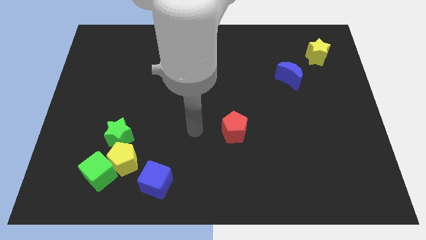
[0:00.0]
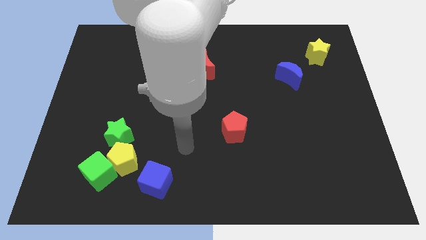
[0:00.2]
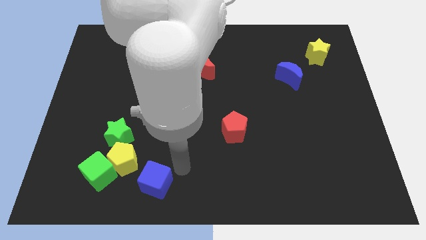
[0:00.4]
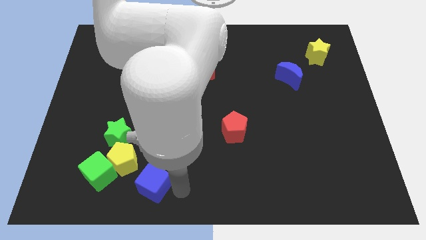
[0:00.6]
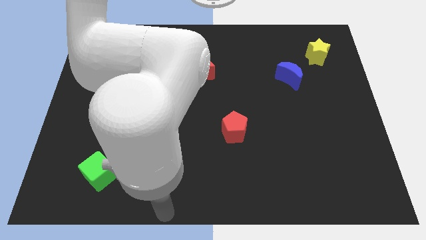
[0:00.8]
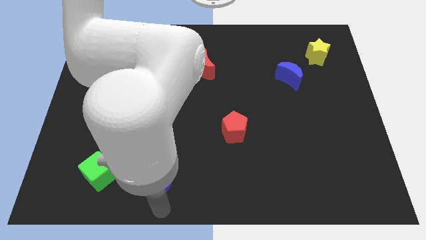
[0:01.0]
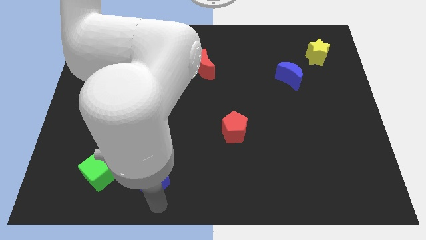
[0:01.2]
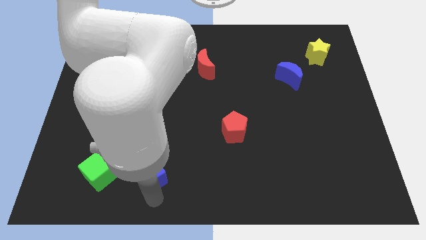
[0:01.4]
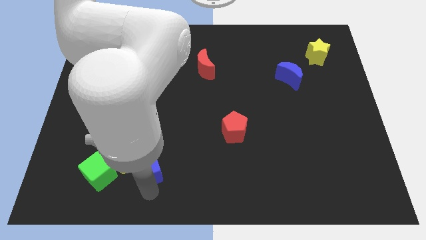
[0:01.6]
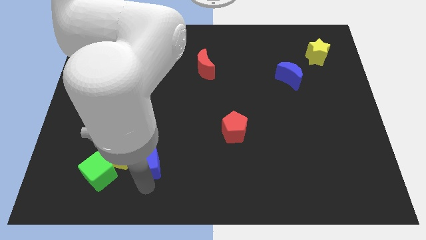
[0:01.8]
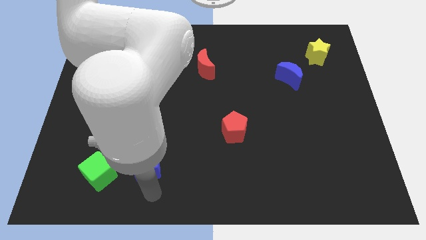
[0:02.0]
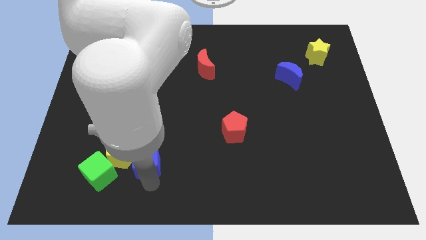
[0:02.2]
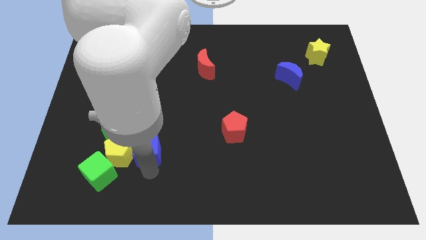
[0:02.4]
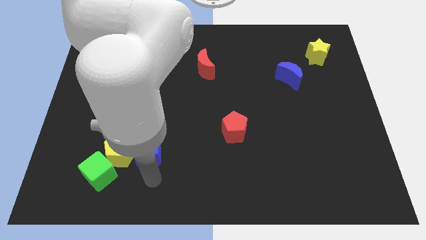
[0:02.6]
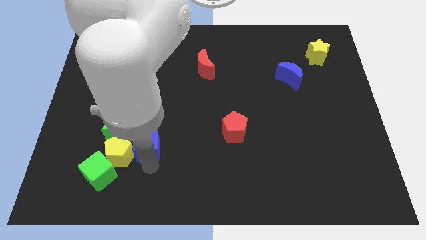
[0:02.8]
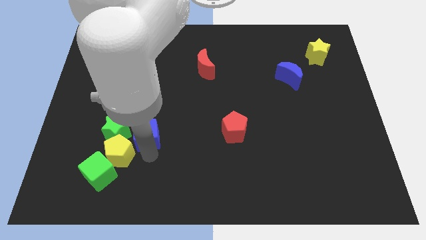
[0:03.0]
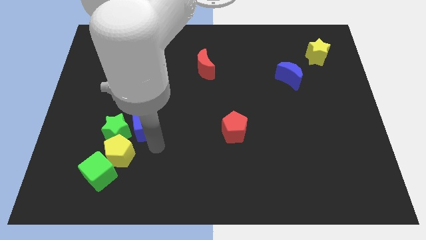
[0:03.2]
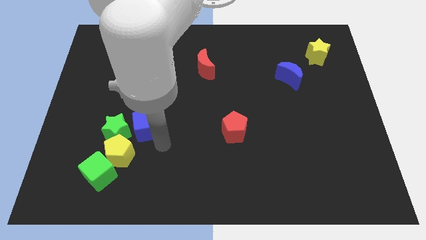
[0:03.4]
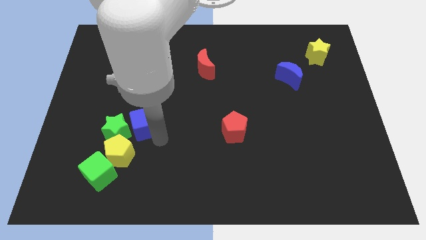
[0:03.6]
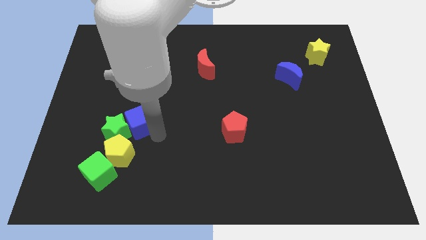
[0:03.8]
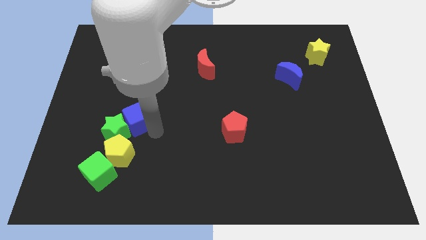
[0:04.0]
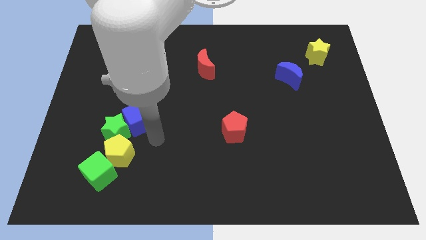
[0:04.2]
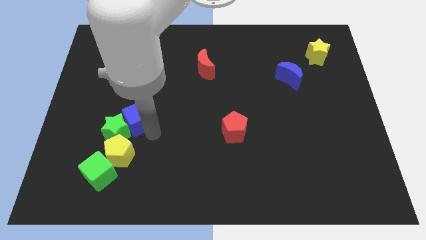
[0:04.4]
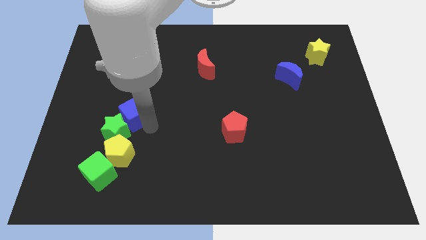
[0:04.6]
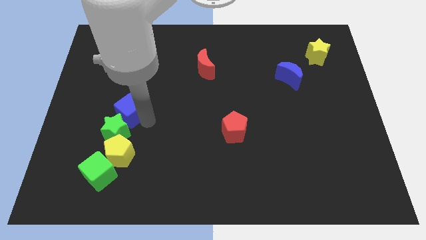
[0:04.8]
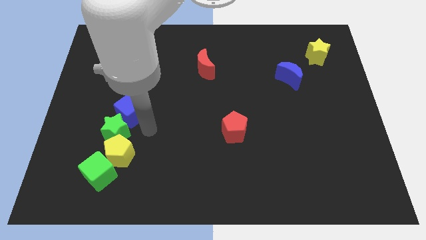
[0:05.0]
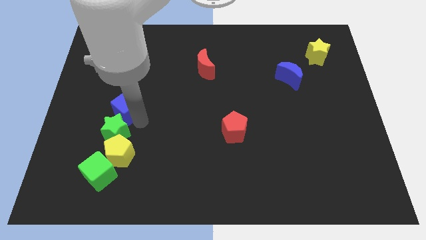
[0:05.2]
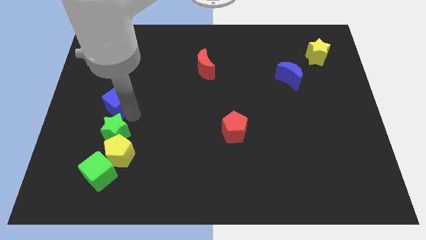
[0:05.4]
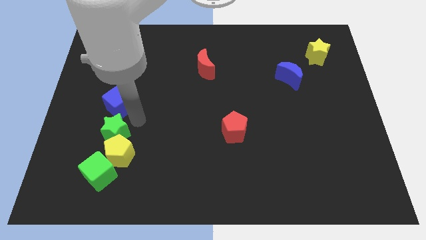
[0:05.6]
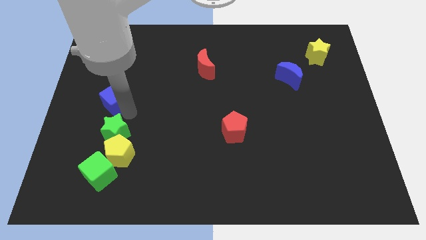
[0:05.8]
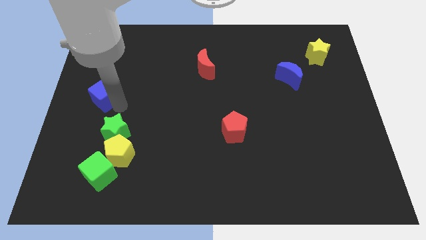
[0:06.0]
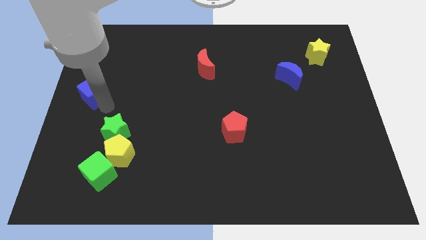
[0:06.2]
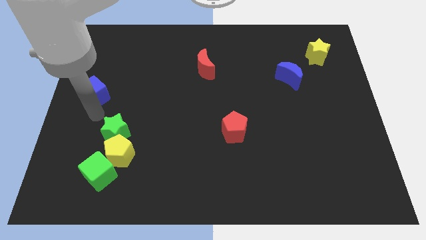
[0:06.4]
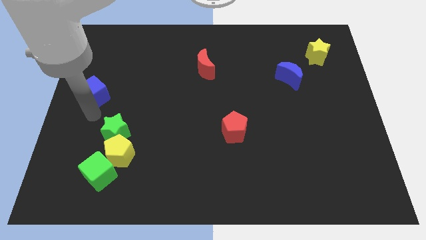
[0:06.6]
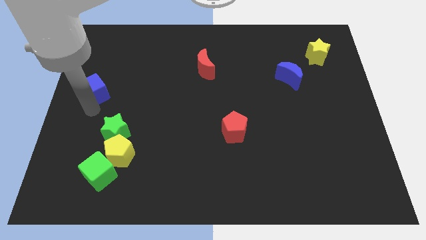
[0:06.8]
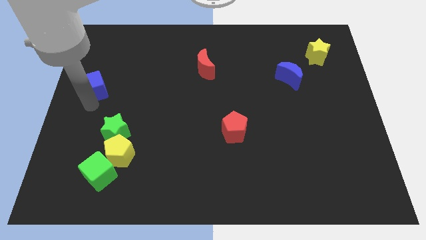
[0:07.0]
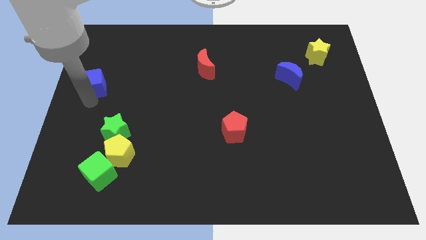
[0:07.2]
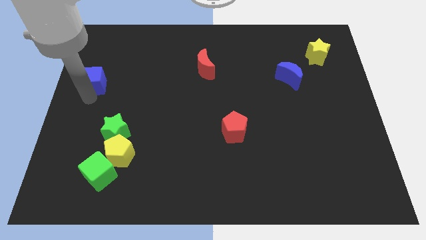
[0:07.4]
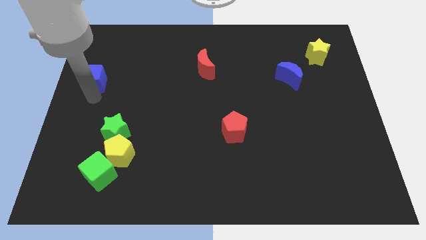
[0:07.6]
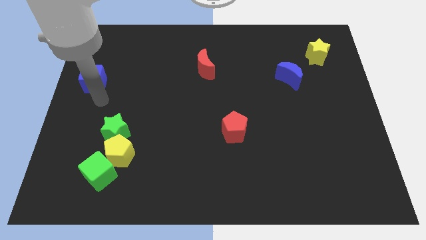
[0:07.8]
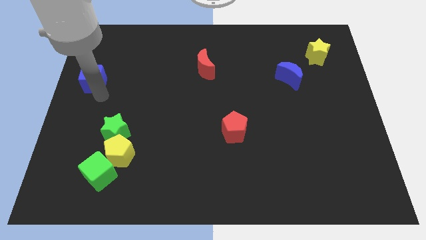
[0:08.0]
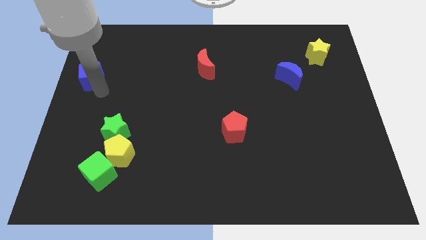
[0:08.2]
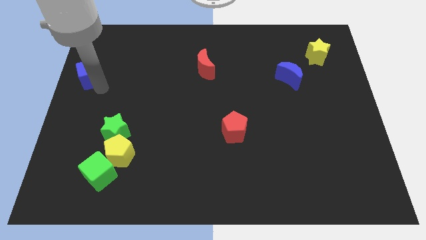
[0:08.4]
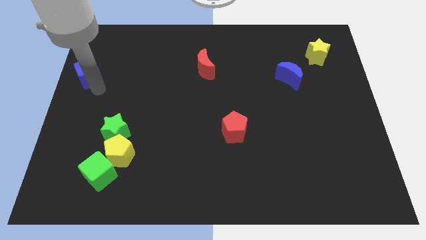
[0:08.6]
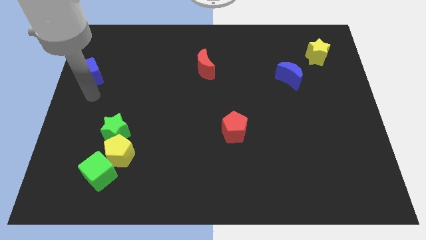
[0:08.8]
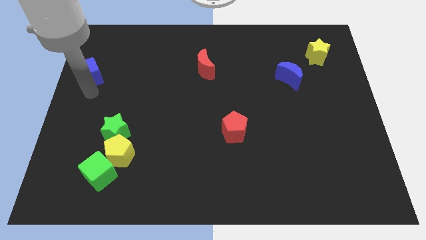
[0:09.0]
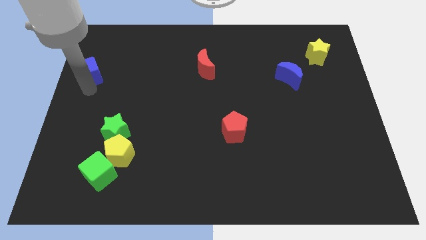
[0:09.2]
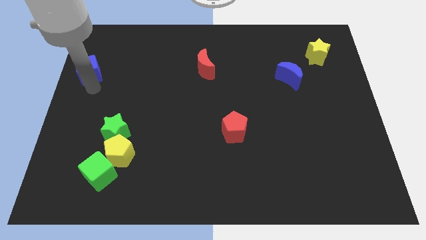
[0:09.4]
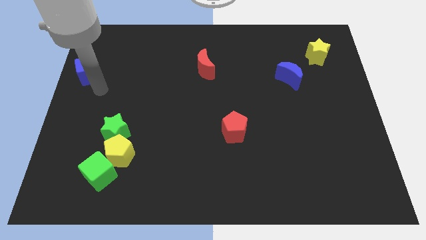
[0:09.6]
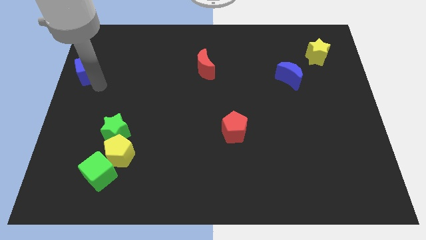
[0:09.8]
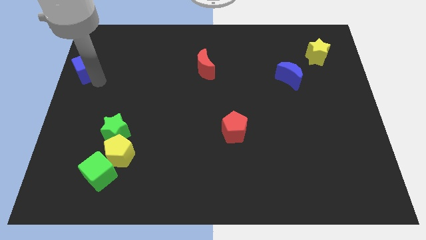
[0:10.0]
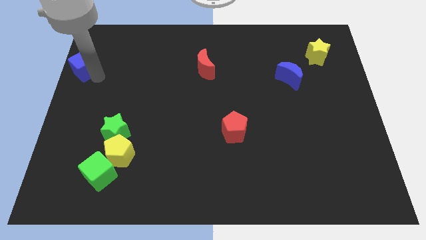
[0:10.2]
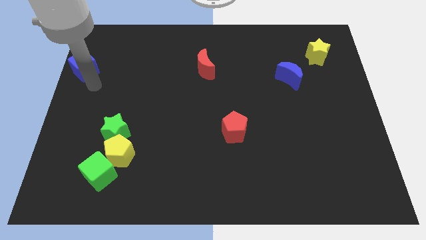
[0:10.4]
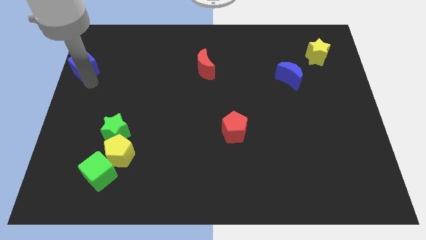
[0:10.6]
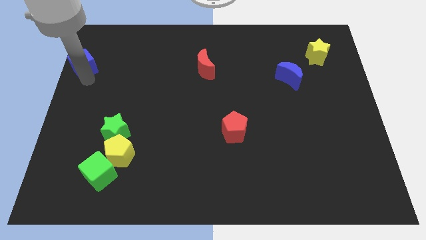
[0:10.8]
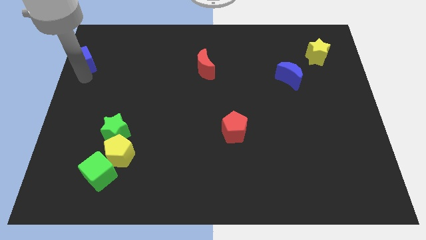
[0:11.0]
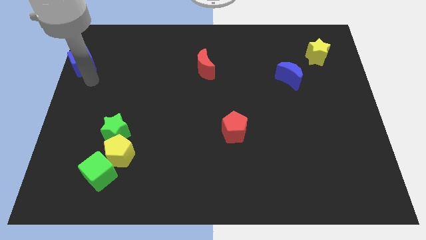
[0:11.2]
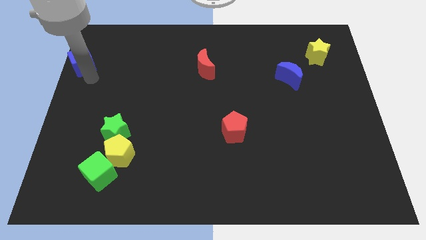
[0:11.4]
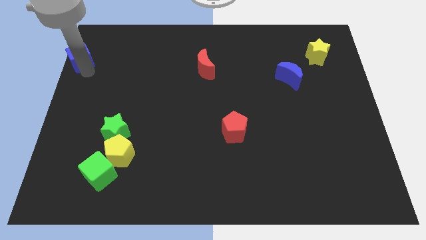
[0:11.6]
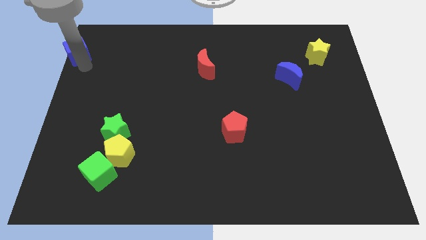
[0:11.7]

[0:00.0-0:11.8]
put the blue cube to the upper left corner
